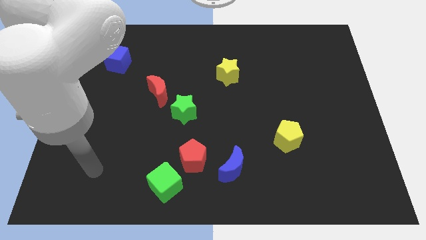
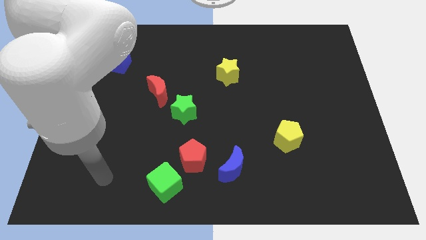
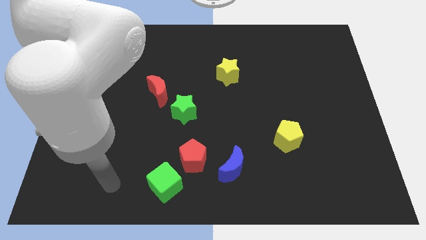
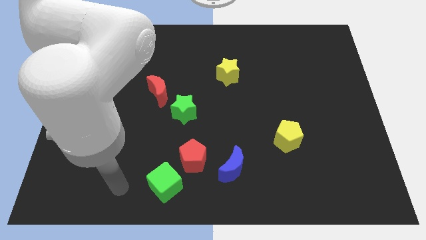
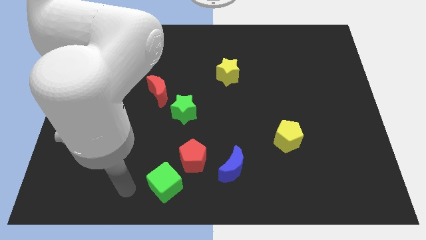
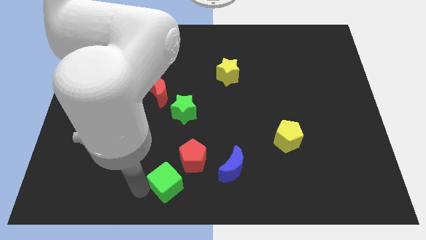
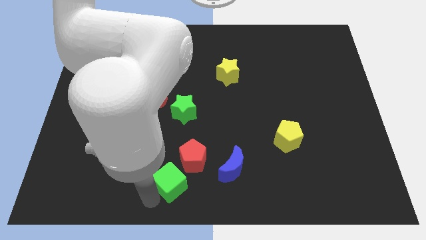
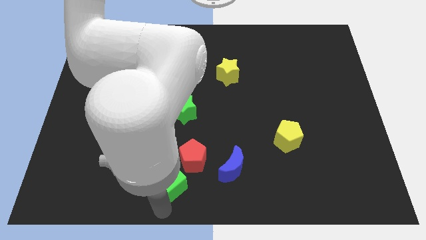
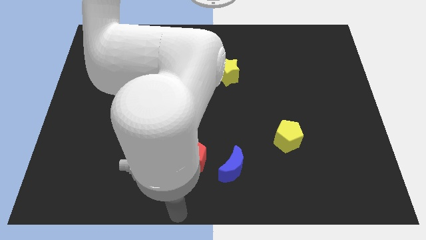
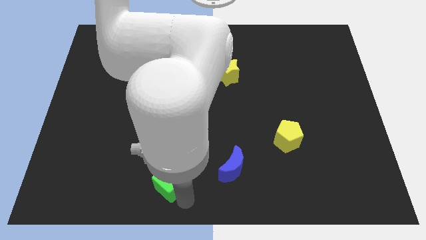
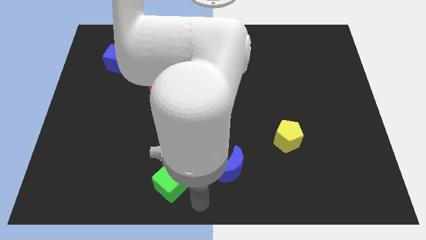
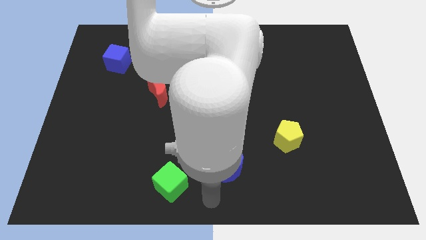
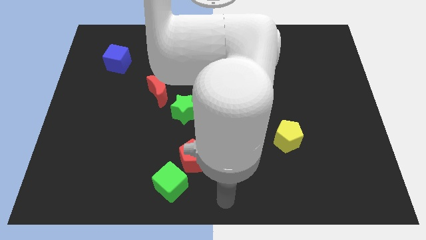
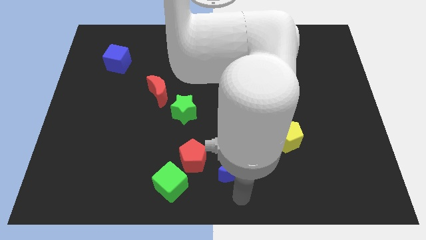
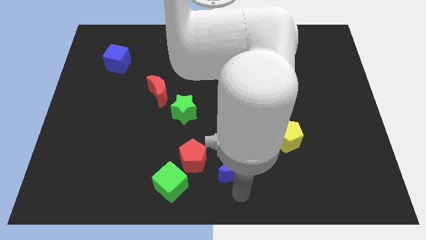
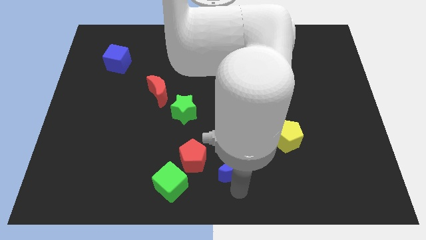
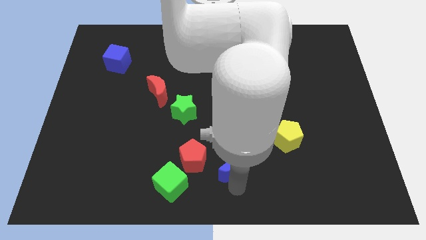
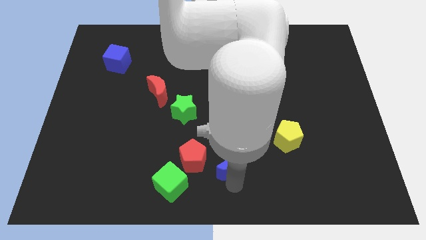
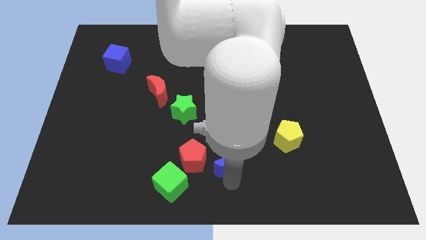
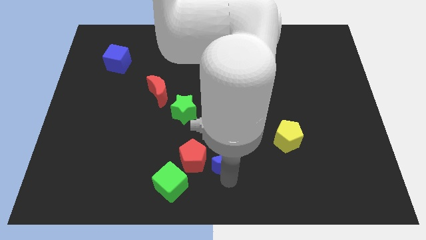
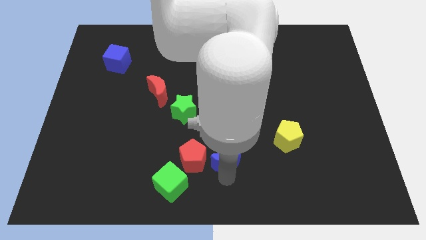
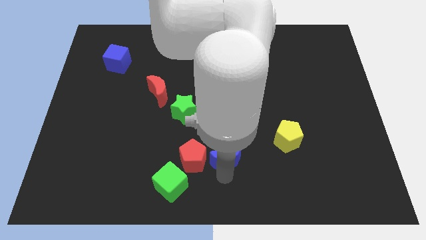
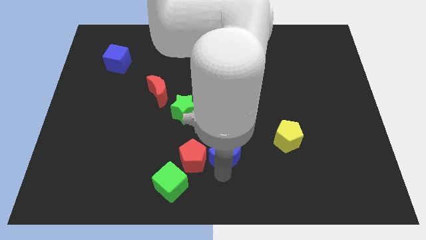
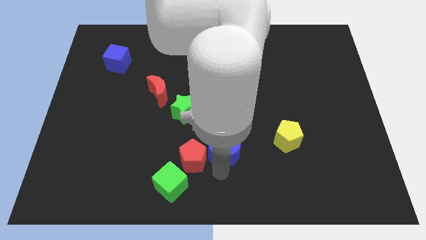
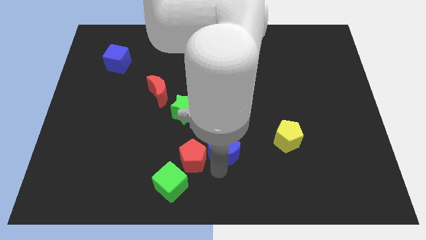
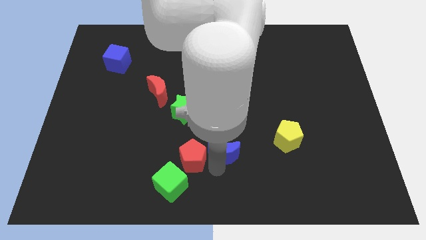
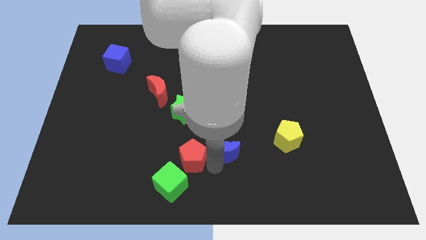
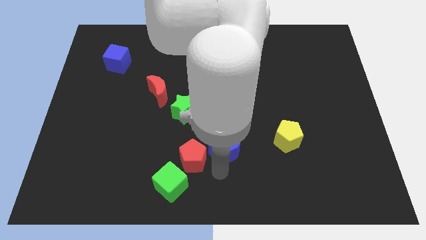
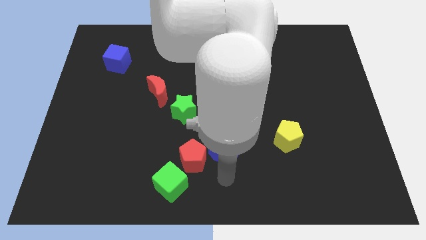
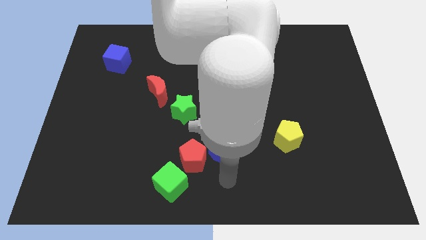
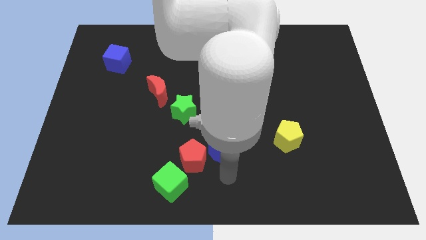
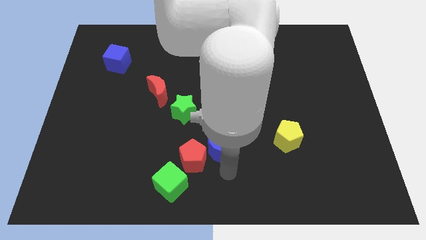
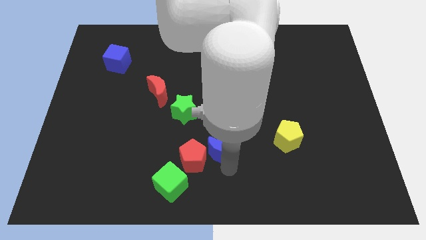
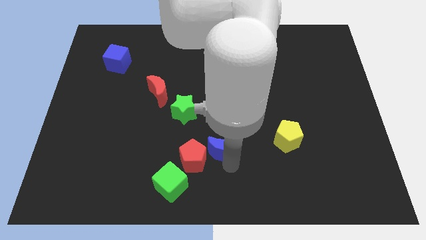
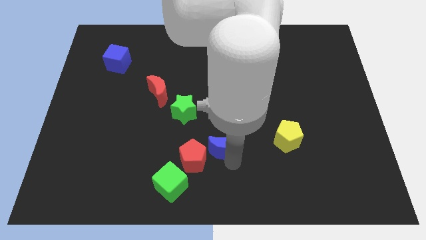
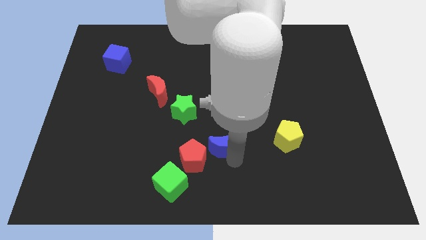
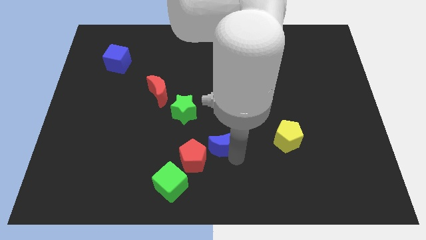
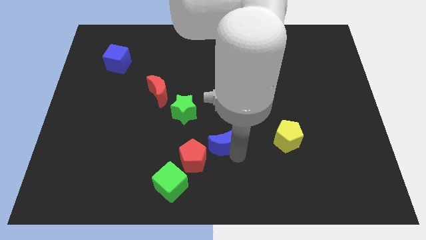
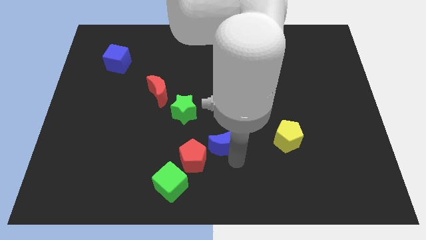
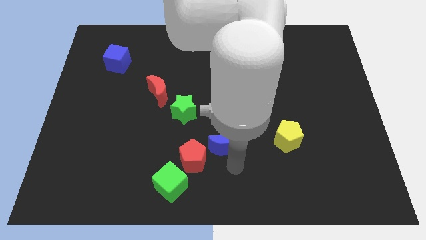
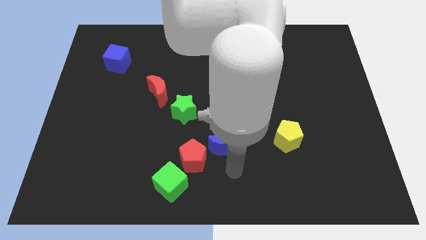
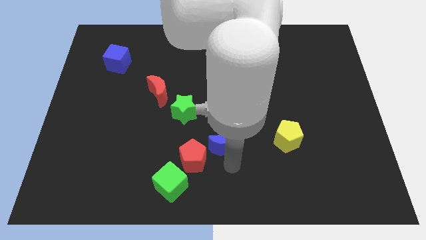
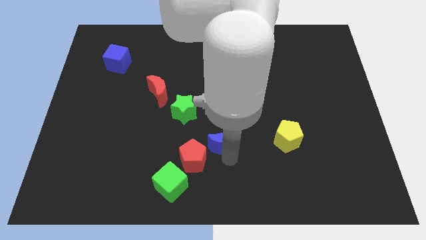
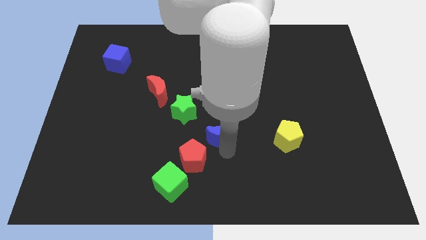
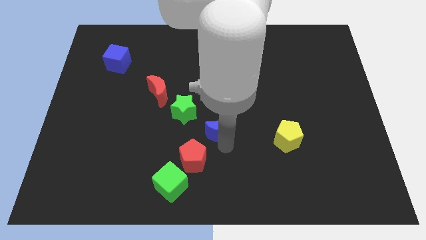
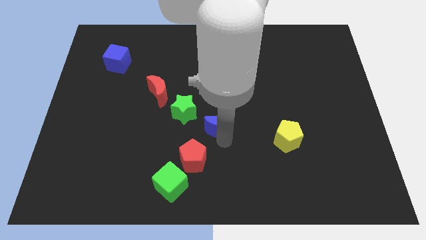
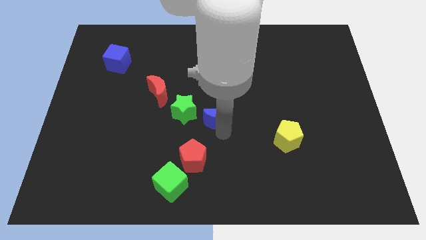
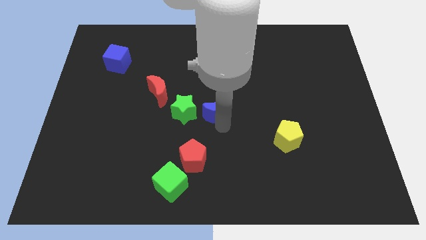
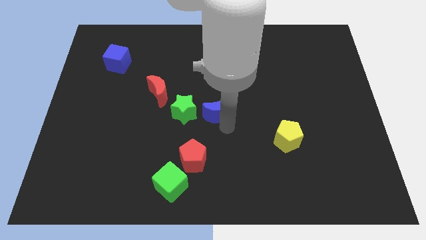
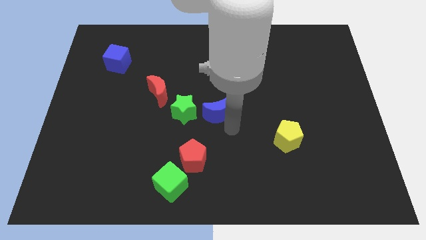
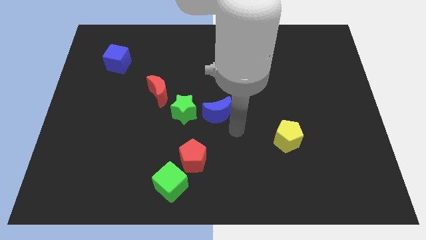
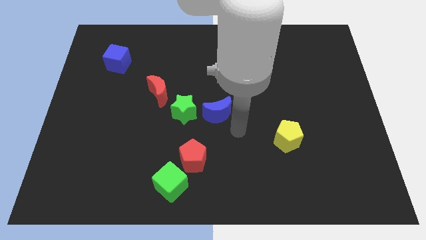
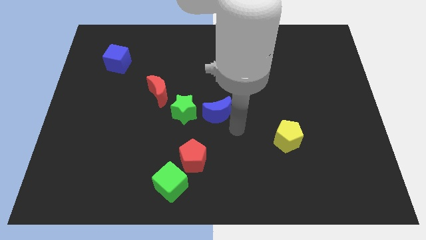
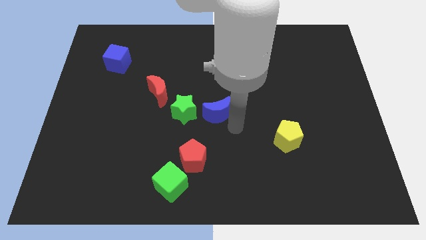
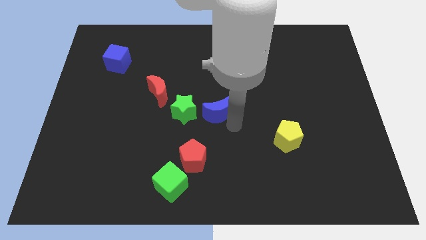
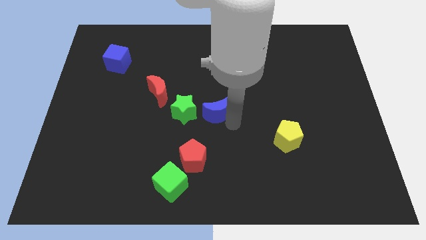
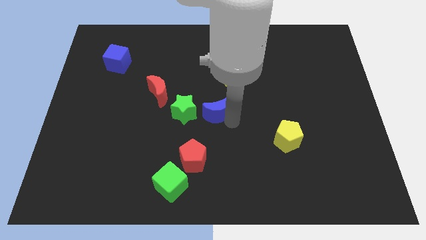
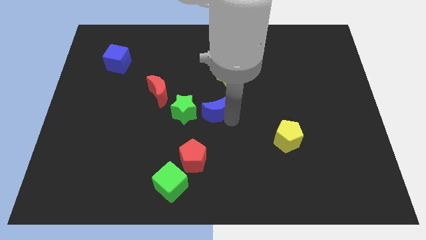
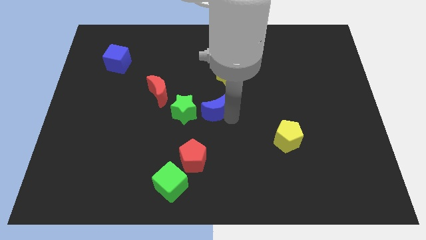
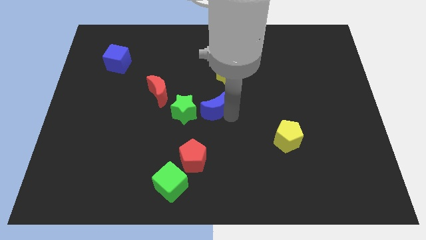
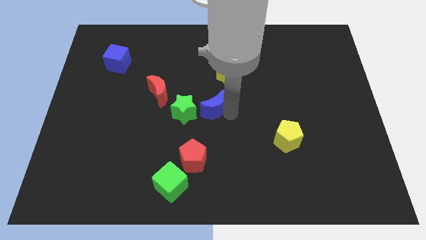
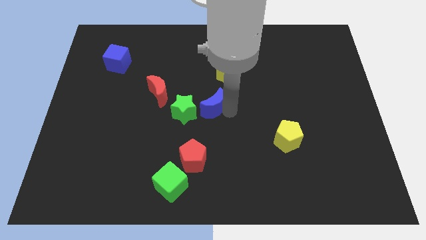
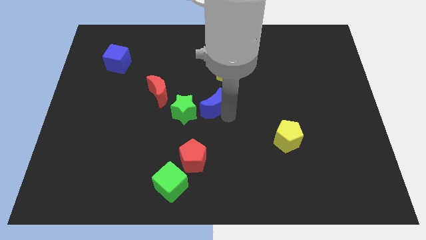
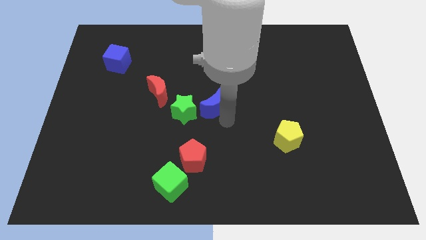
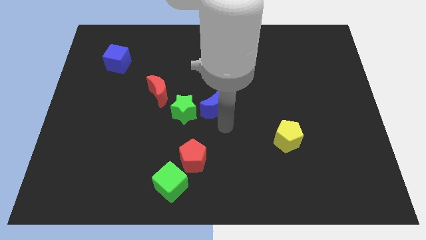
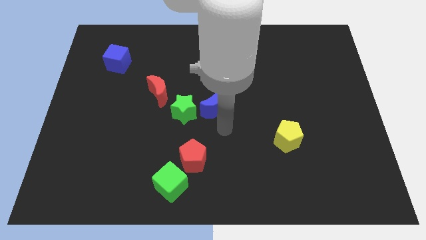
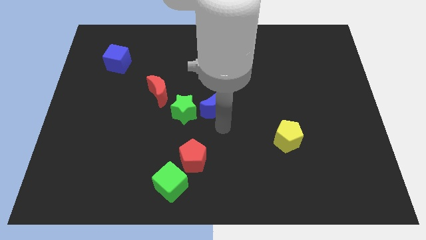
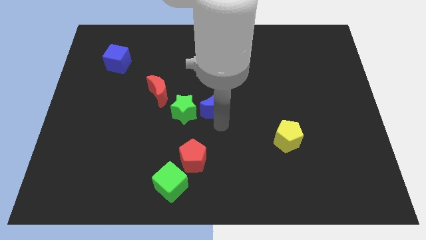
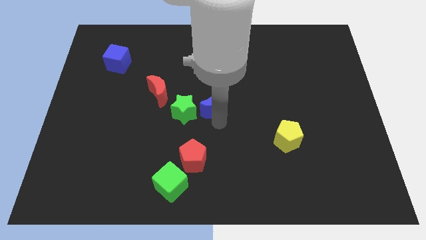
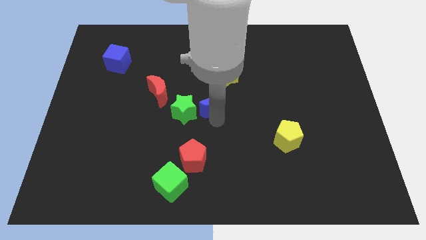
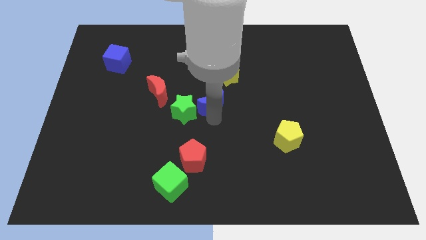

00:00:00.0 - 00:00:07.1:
move the blue moon to the bottom left of the yellow star
